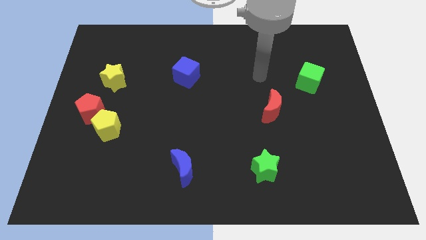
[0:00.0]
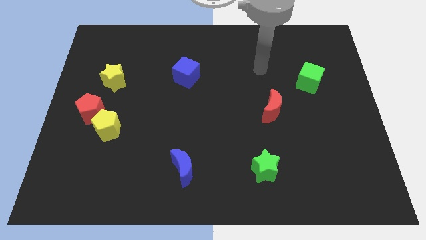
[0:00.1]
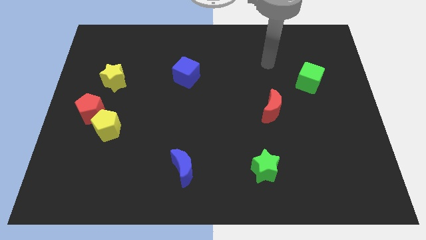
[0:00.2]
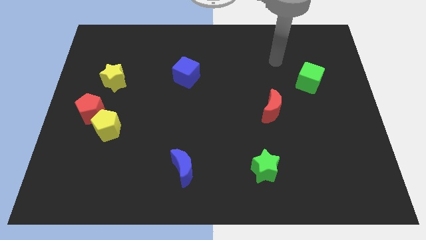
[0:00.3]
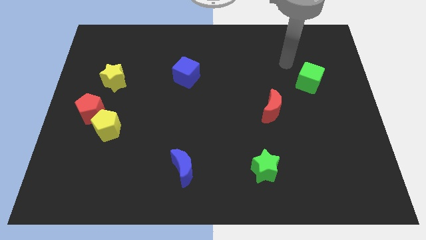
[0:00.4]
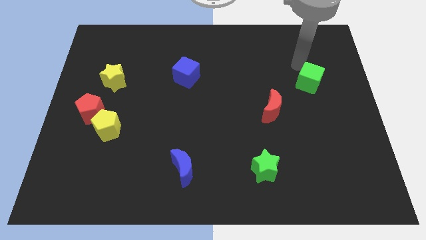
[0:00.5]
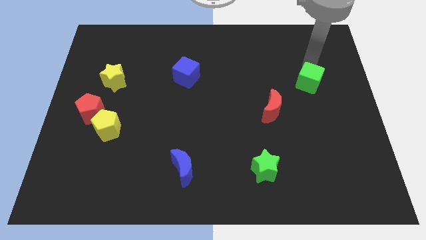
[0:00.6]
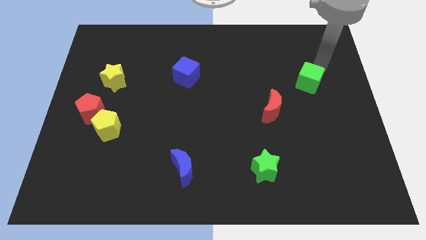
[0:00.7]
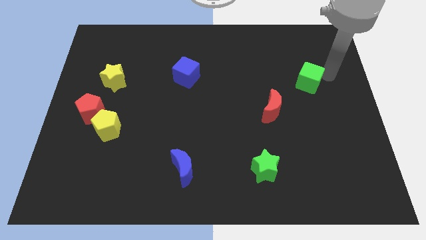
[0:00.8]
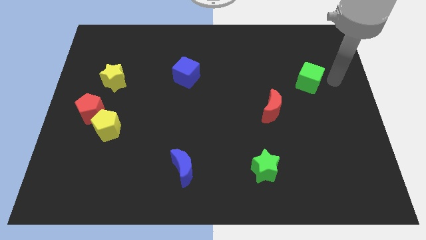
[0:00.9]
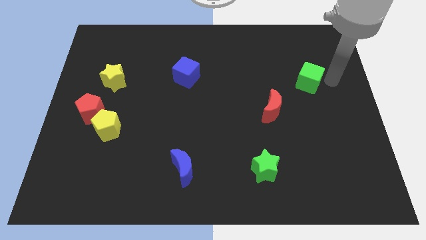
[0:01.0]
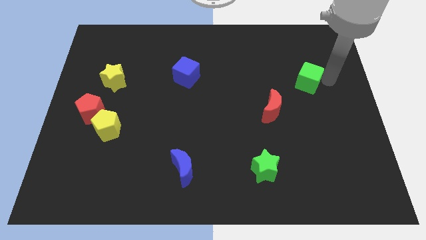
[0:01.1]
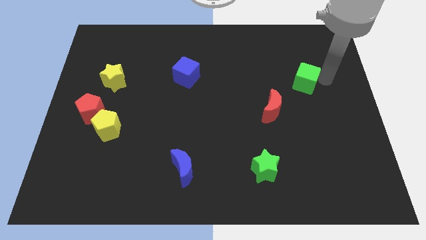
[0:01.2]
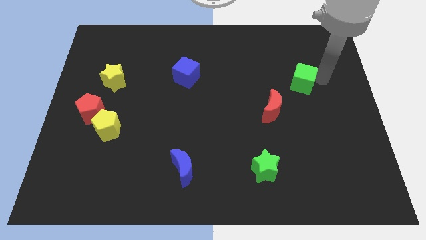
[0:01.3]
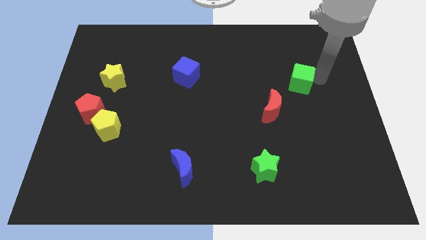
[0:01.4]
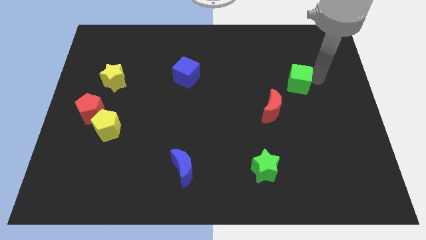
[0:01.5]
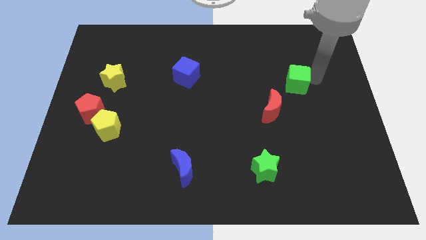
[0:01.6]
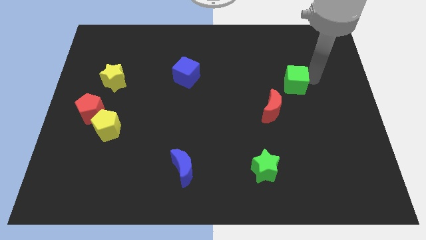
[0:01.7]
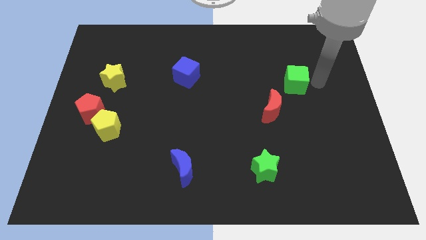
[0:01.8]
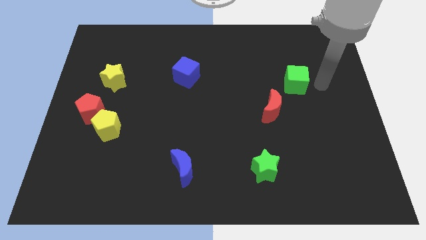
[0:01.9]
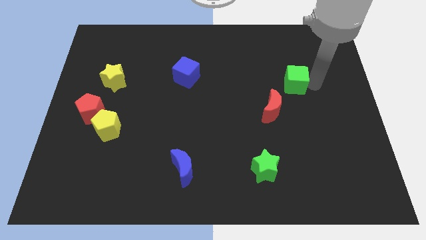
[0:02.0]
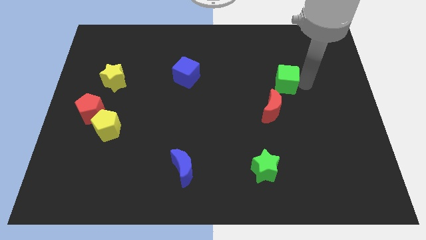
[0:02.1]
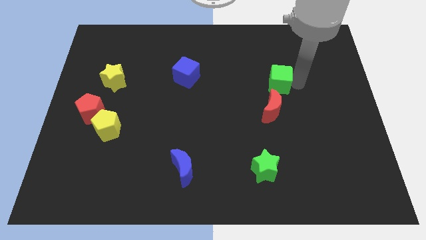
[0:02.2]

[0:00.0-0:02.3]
slightly slide the green cube to the left

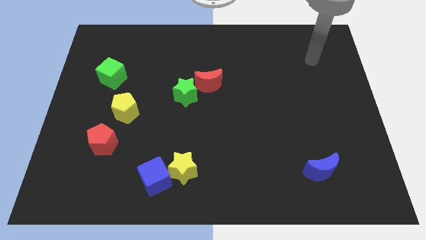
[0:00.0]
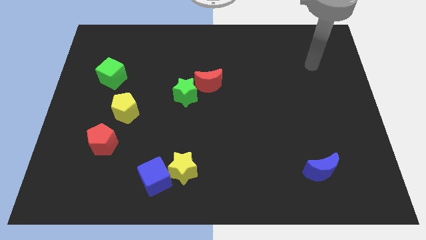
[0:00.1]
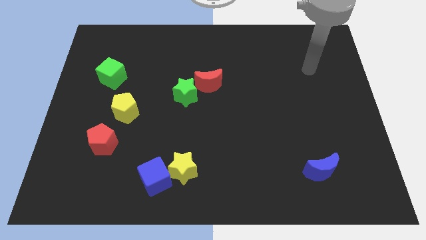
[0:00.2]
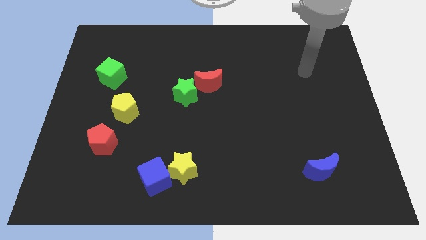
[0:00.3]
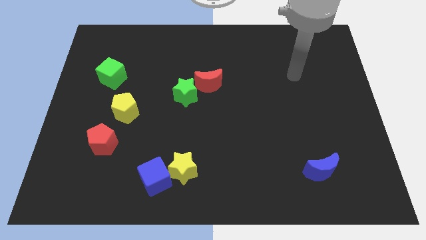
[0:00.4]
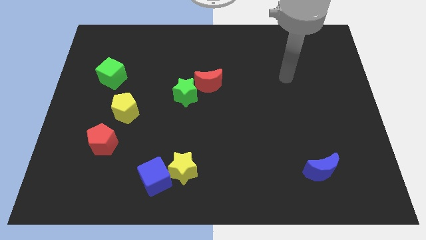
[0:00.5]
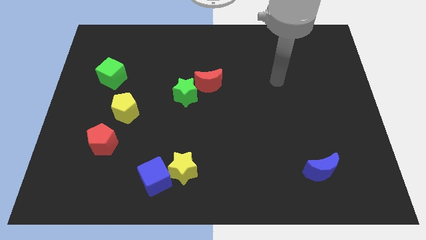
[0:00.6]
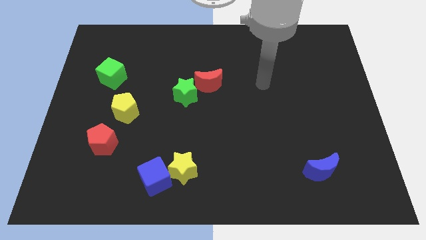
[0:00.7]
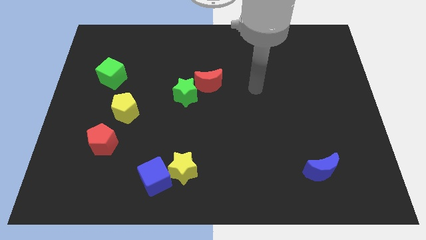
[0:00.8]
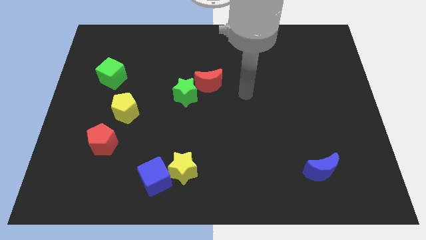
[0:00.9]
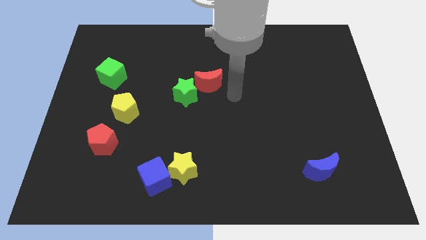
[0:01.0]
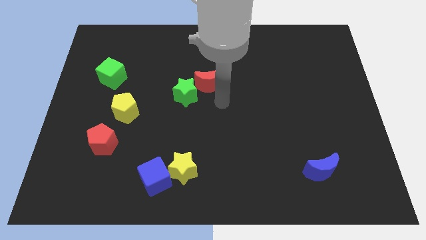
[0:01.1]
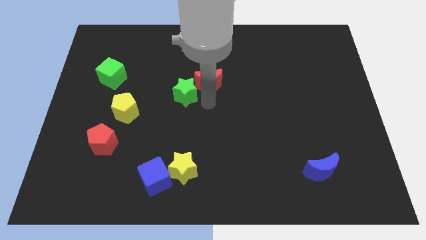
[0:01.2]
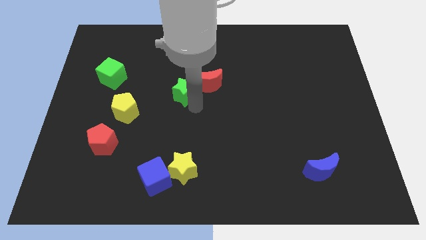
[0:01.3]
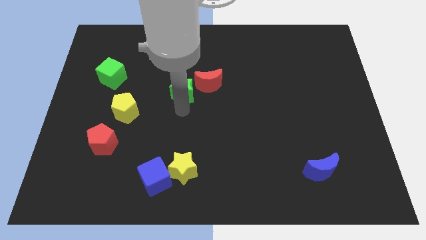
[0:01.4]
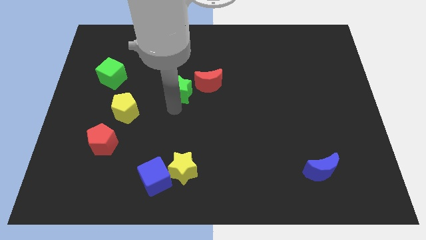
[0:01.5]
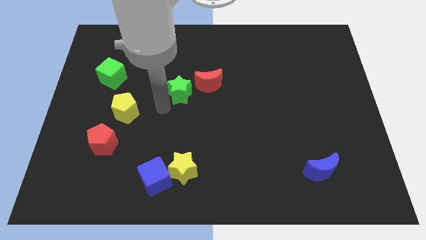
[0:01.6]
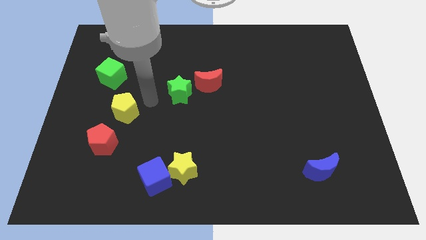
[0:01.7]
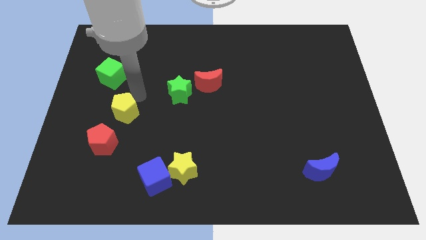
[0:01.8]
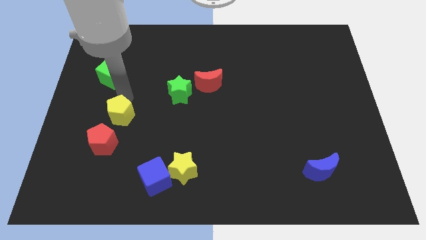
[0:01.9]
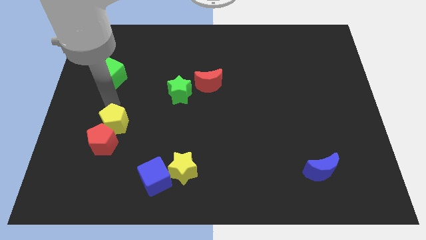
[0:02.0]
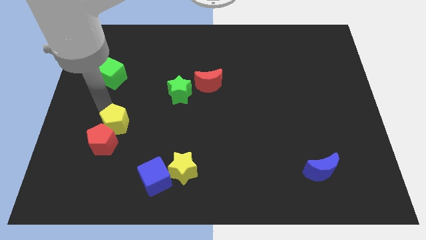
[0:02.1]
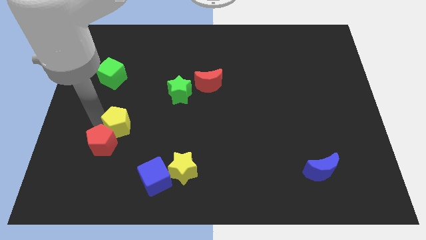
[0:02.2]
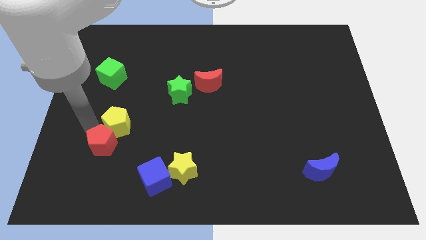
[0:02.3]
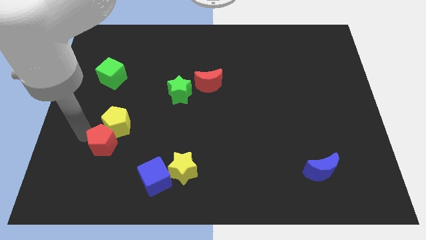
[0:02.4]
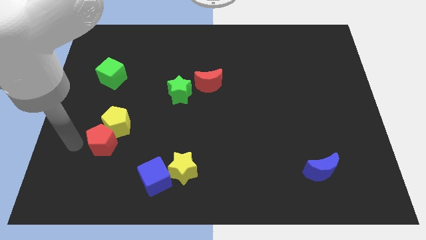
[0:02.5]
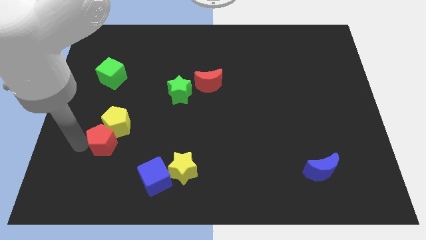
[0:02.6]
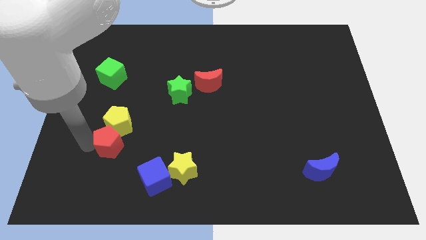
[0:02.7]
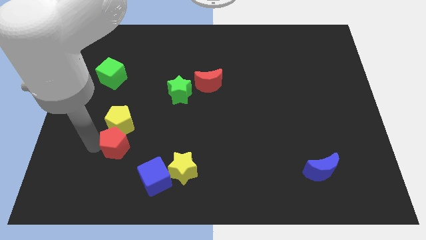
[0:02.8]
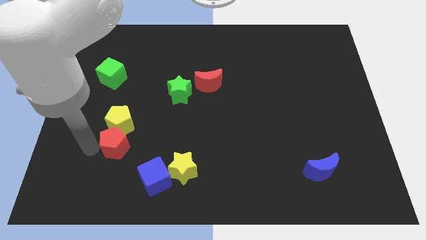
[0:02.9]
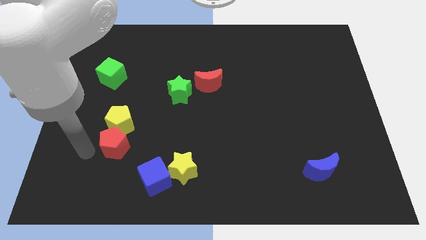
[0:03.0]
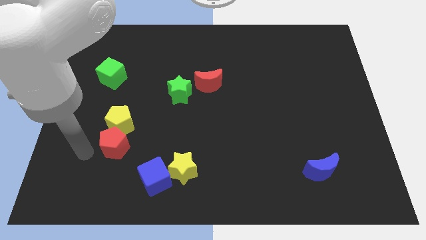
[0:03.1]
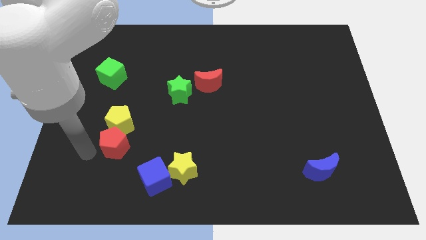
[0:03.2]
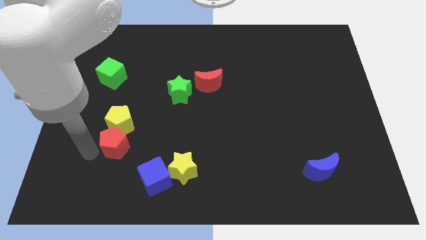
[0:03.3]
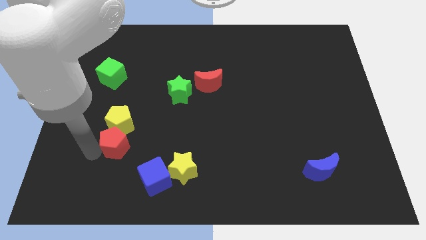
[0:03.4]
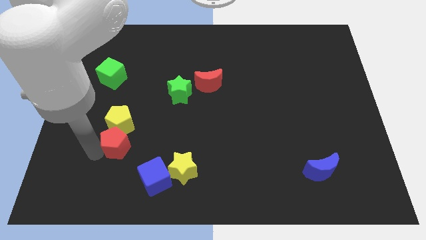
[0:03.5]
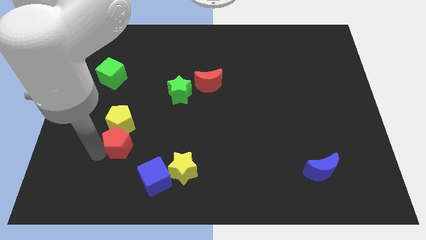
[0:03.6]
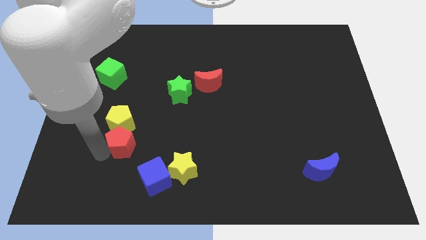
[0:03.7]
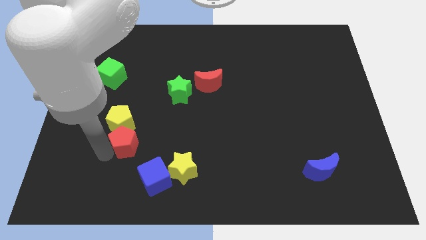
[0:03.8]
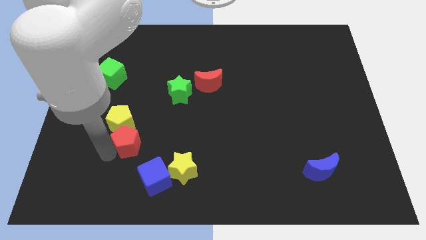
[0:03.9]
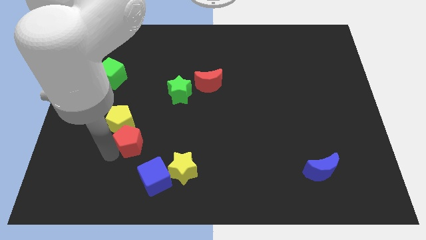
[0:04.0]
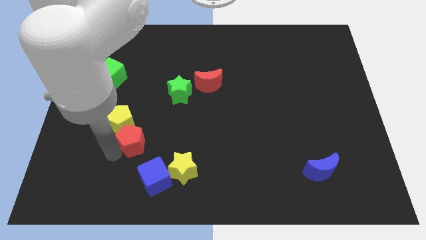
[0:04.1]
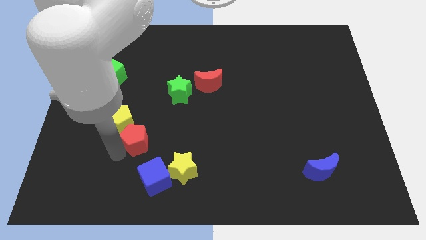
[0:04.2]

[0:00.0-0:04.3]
slightly move the red pentagon to the right

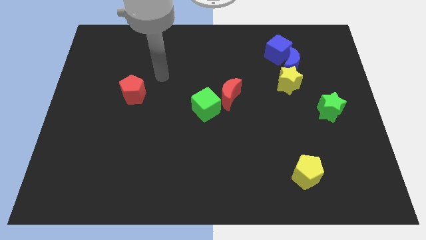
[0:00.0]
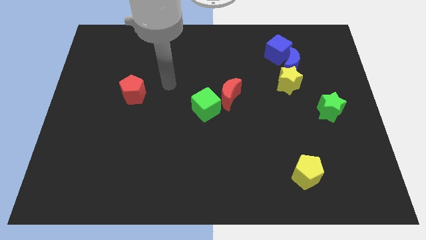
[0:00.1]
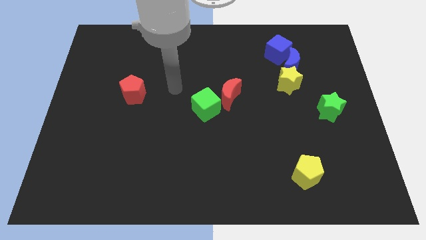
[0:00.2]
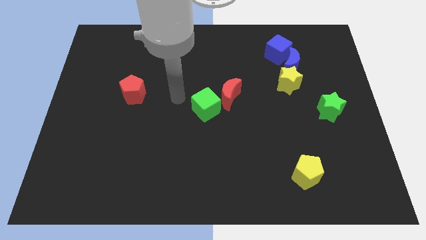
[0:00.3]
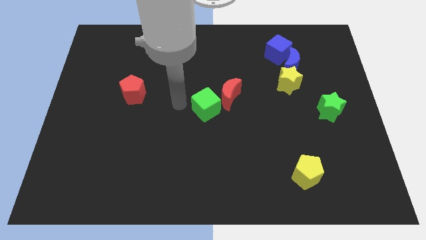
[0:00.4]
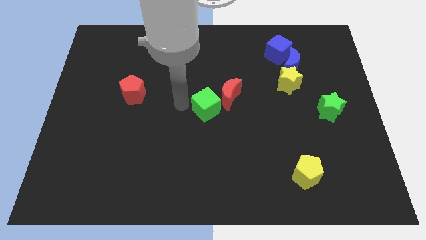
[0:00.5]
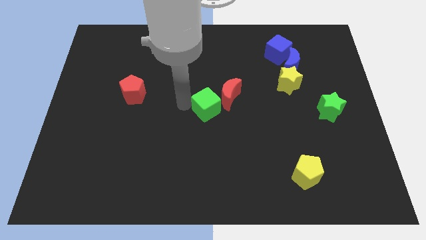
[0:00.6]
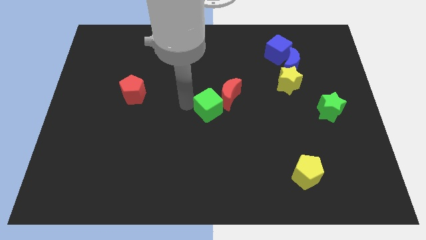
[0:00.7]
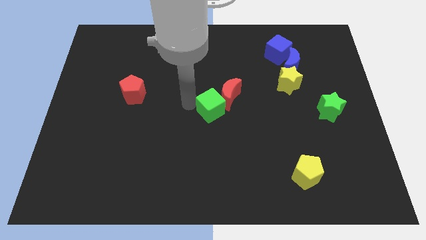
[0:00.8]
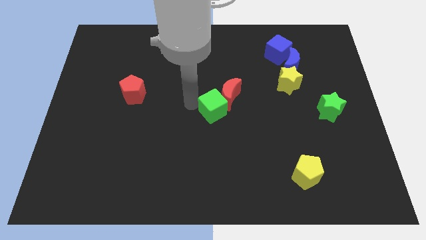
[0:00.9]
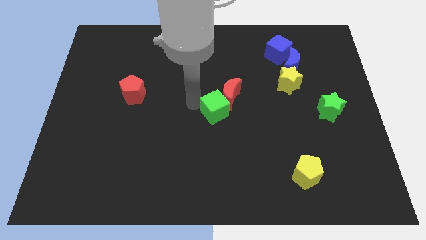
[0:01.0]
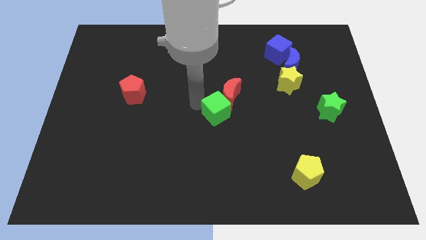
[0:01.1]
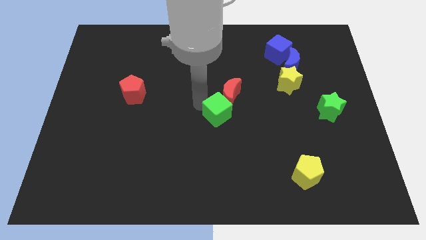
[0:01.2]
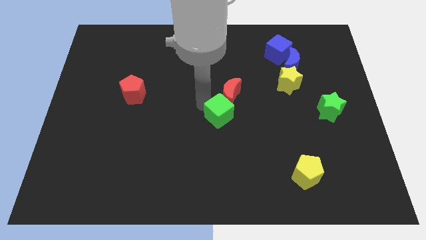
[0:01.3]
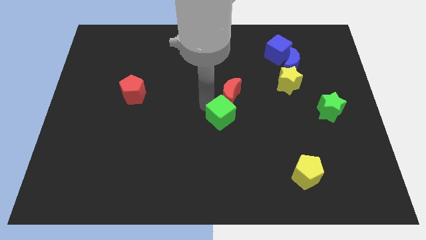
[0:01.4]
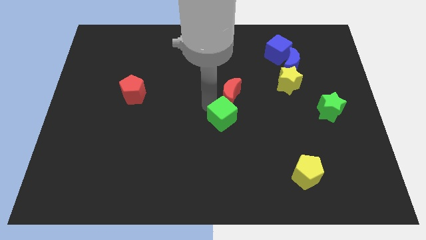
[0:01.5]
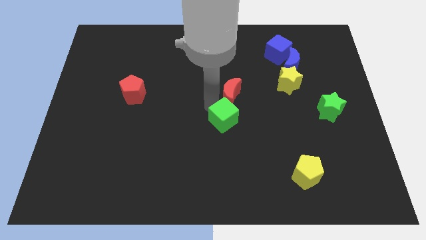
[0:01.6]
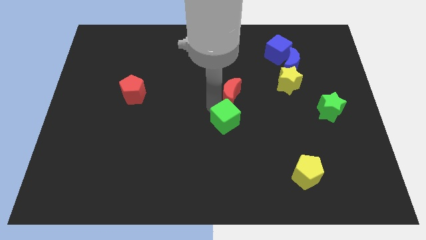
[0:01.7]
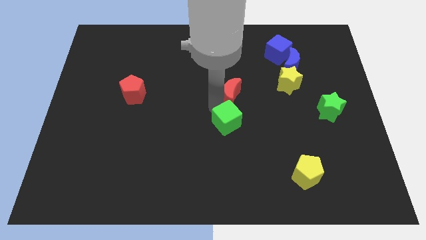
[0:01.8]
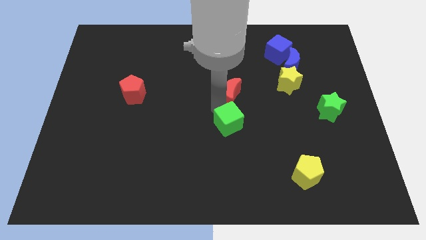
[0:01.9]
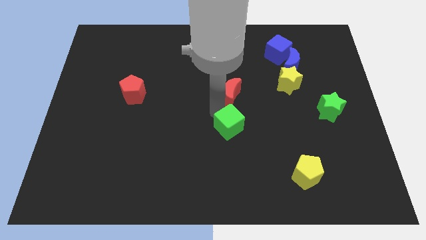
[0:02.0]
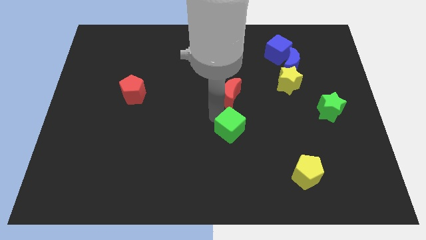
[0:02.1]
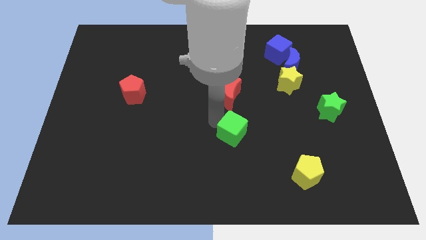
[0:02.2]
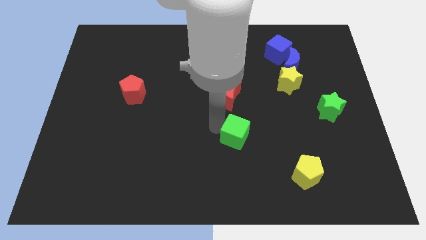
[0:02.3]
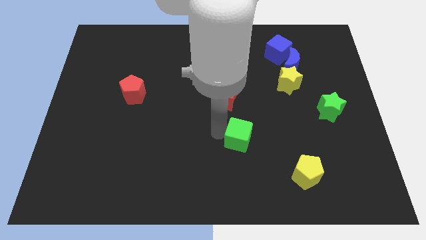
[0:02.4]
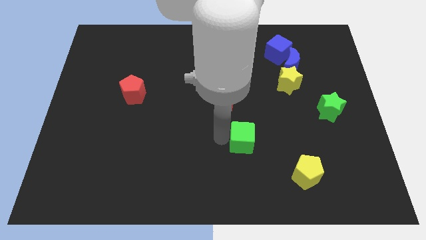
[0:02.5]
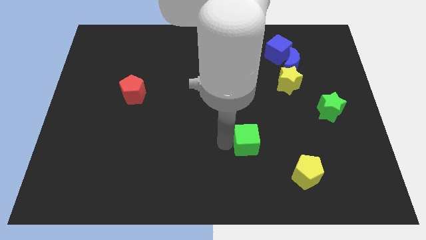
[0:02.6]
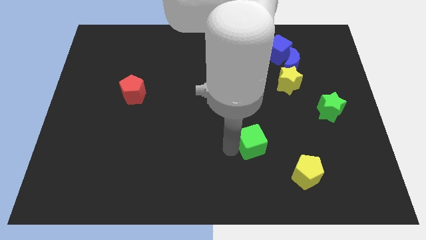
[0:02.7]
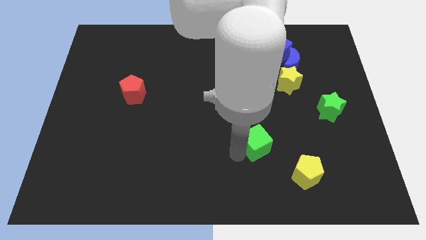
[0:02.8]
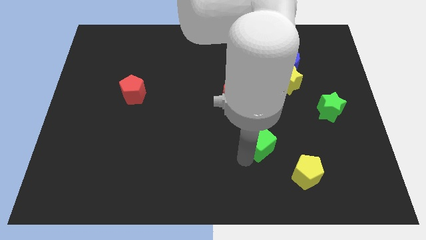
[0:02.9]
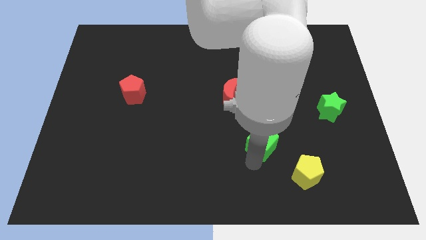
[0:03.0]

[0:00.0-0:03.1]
push the green cube to the right slightly
